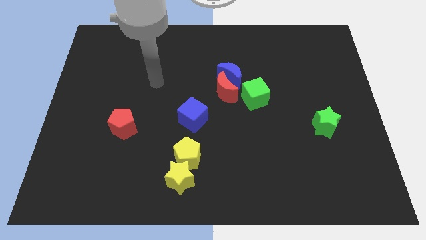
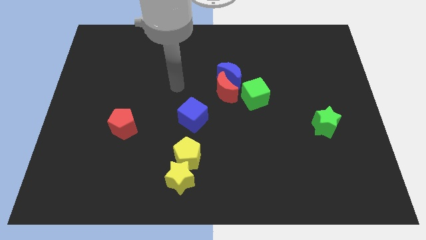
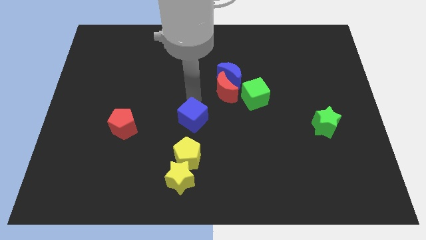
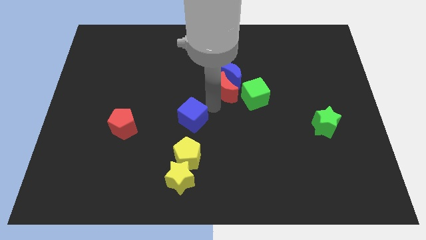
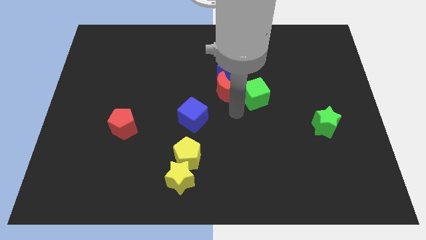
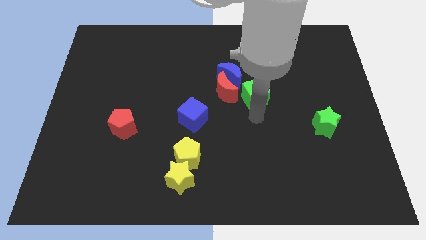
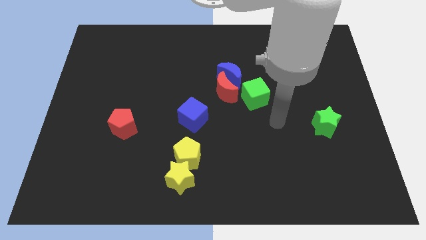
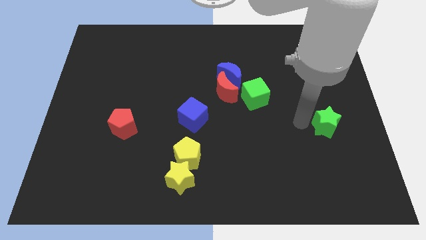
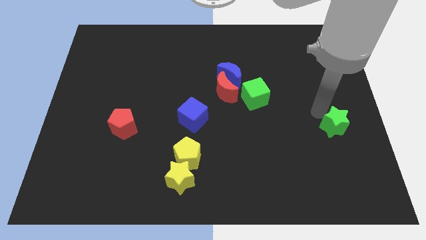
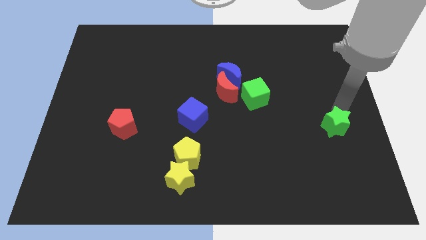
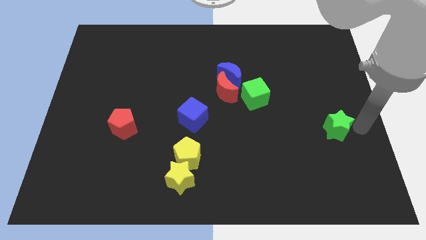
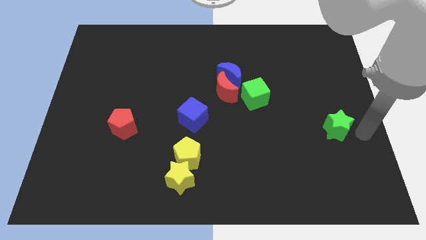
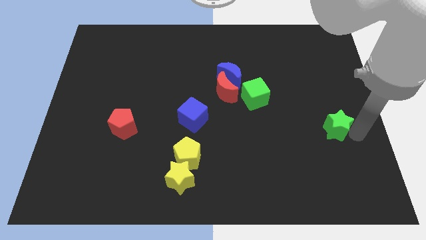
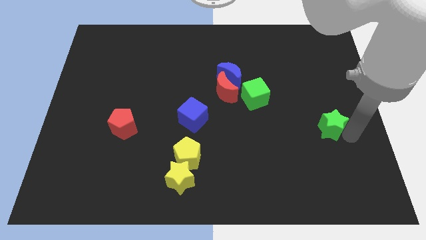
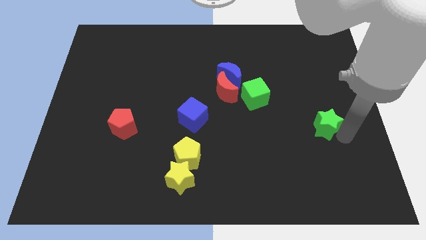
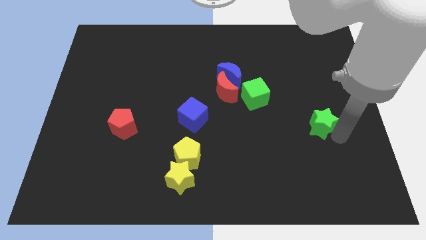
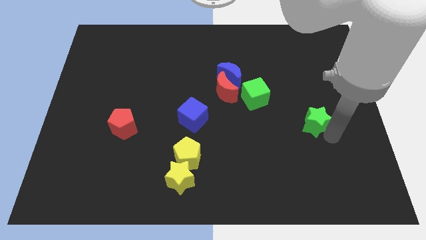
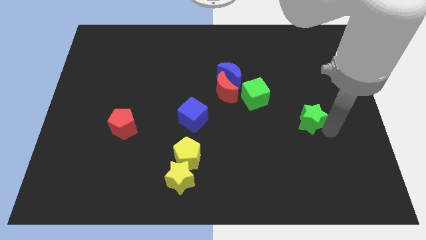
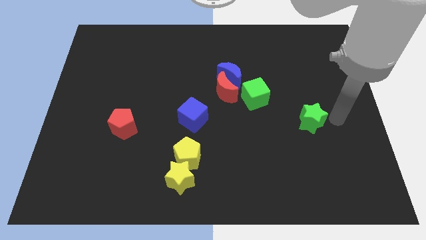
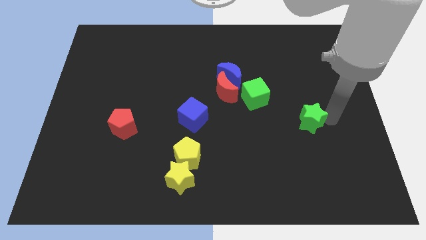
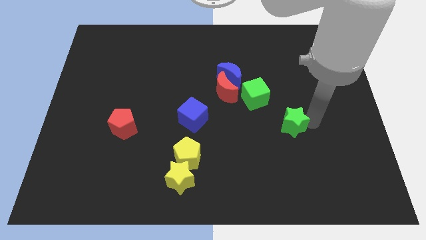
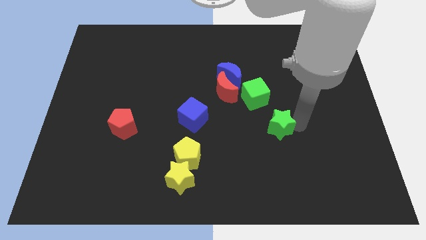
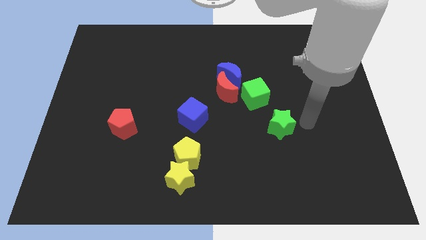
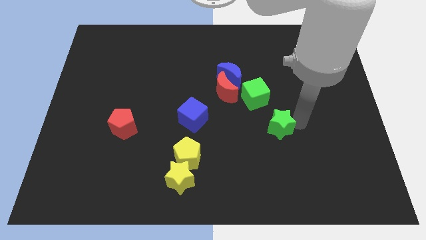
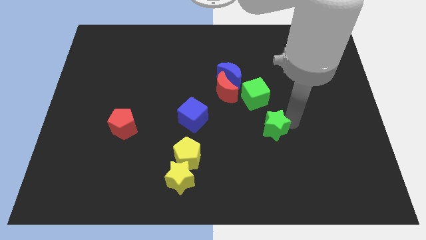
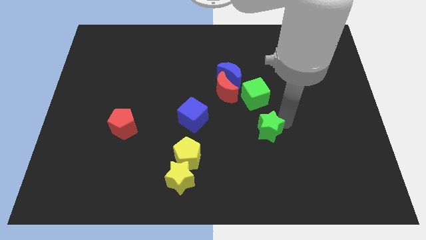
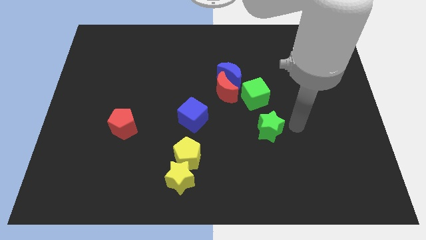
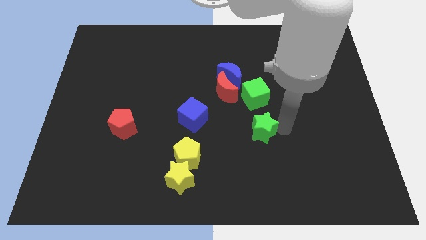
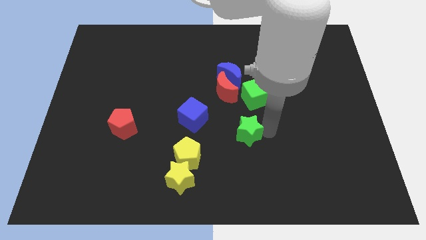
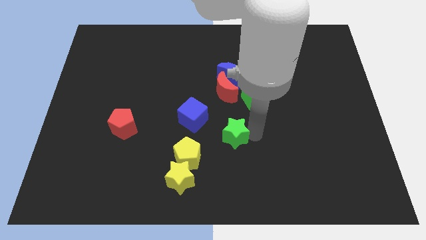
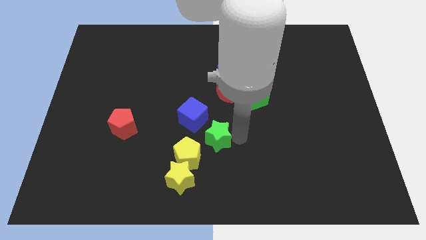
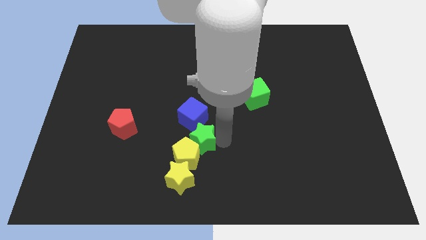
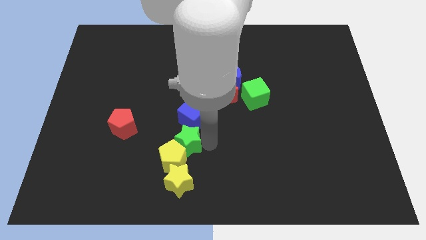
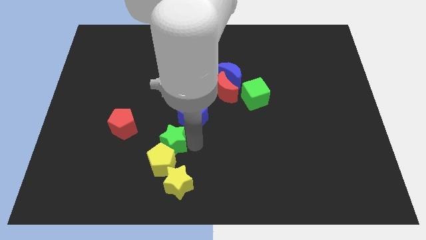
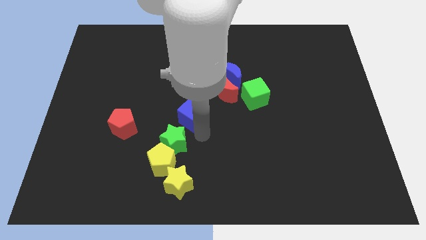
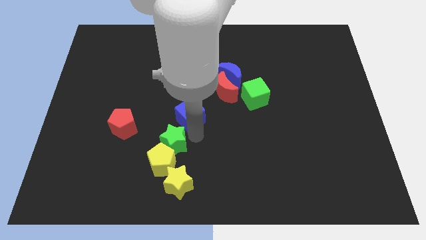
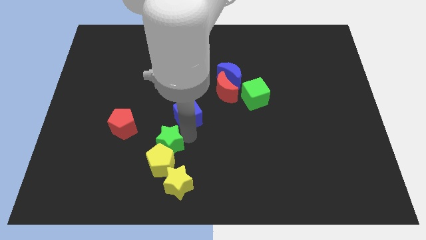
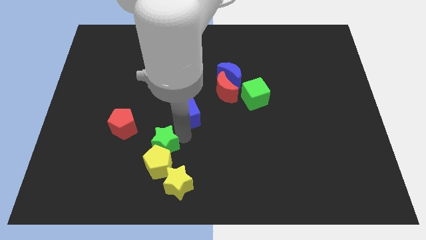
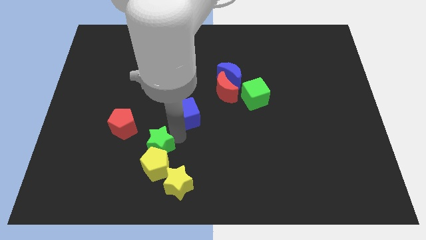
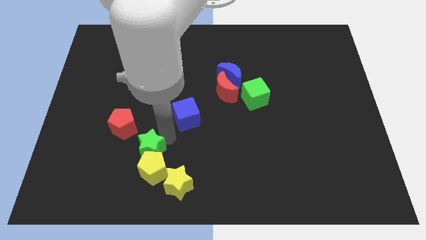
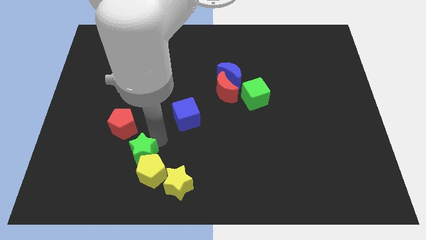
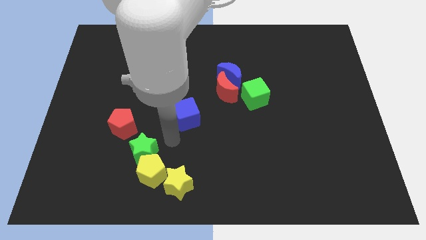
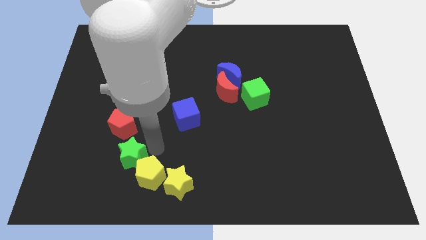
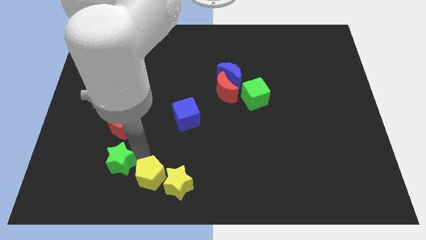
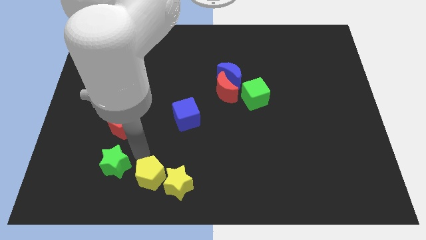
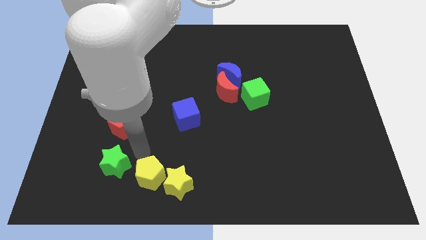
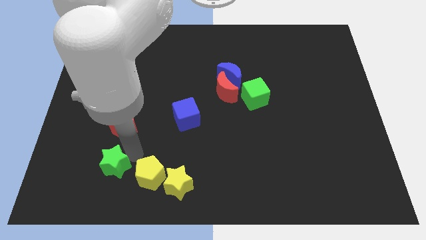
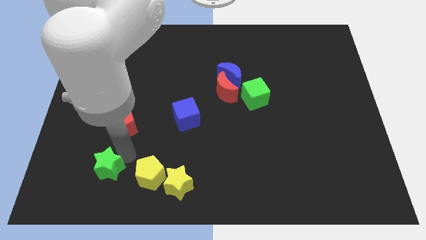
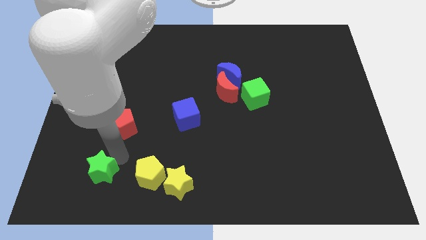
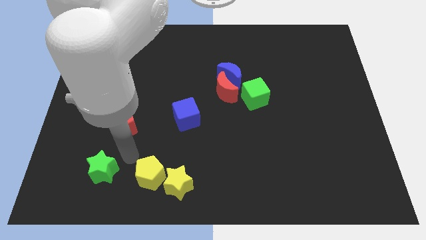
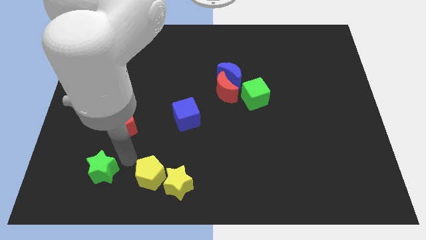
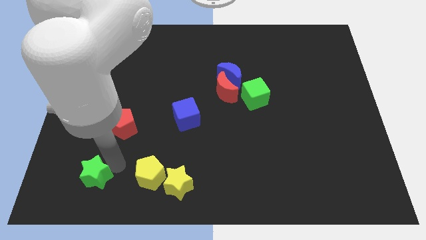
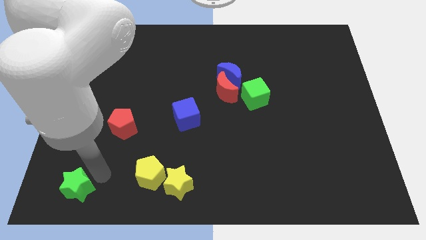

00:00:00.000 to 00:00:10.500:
put the green star to the bottom left

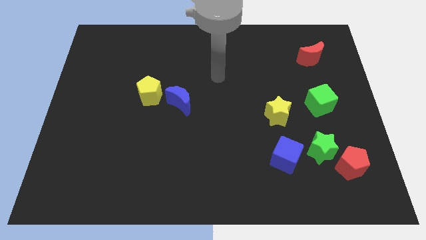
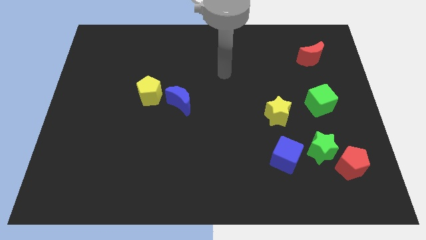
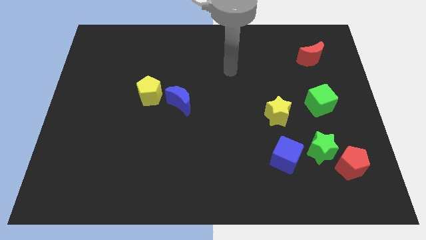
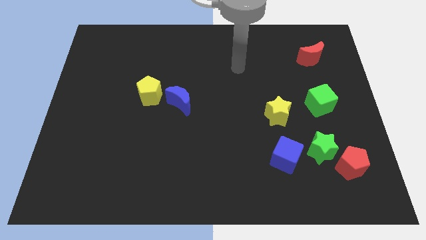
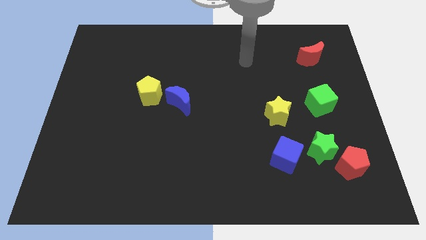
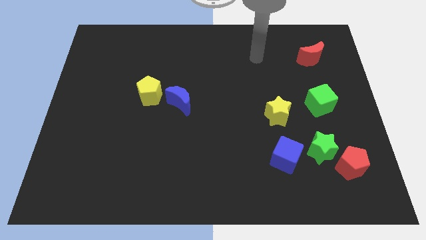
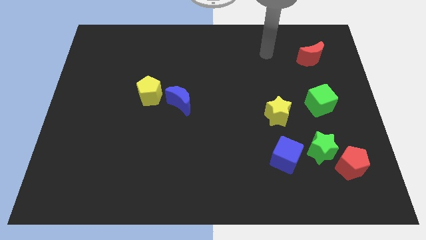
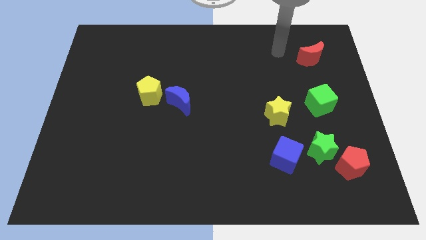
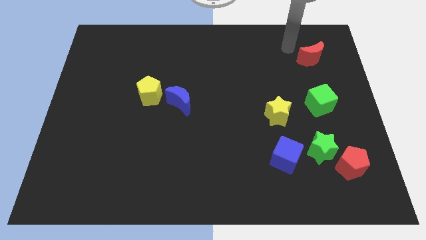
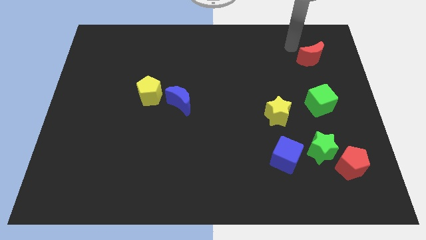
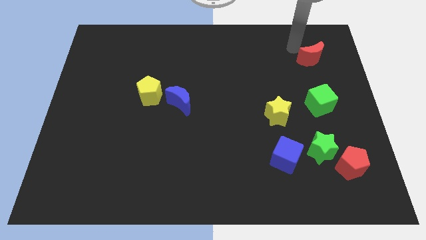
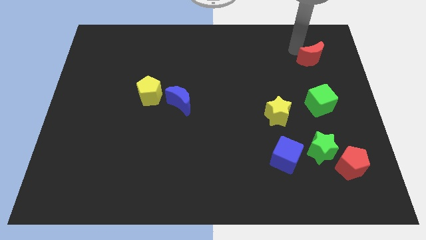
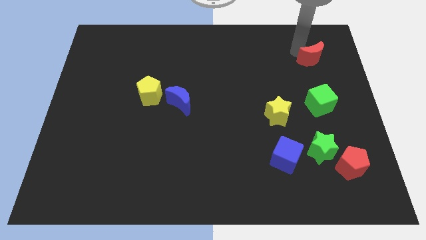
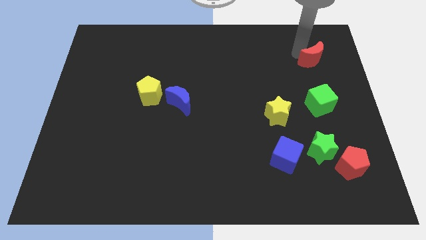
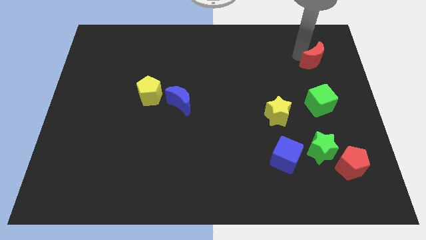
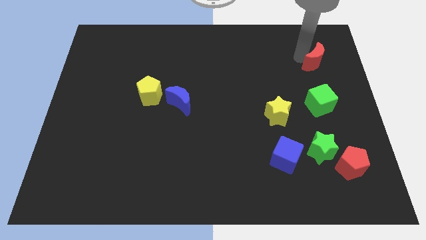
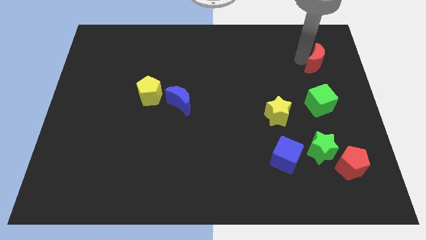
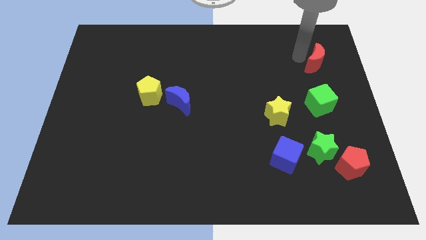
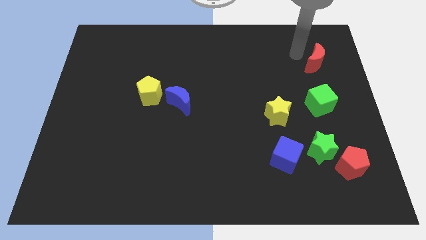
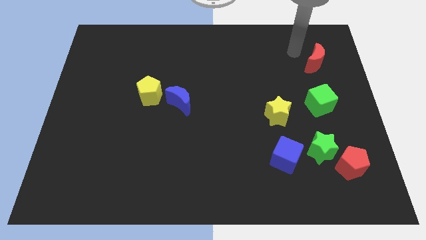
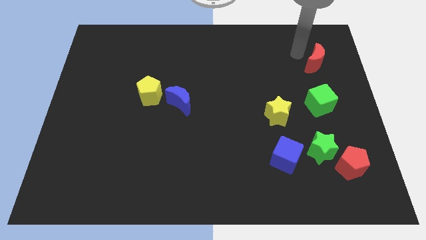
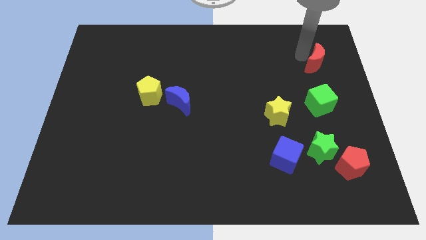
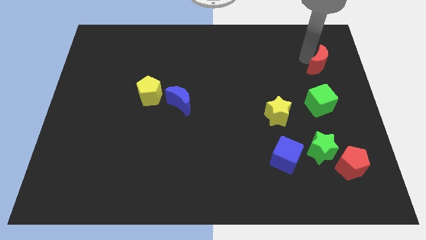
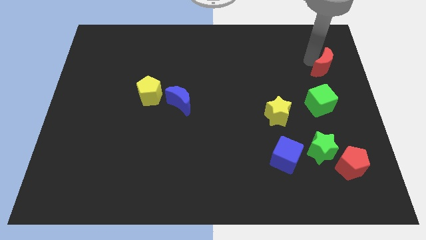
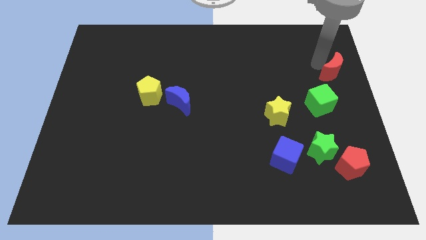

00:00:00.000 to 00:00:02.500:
put the red moon to the right side of the board
